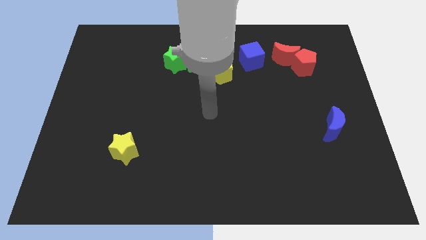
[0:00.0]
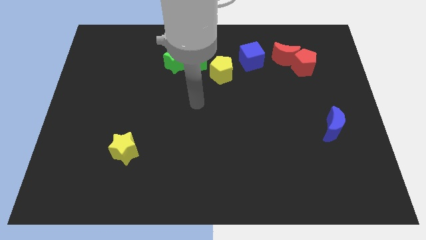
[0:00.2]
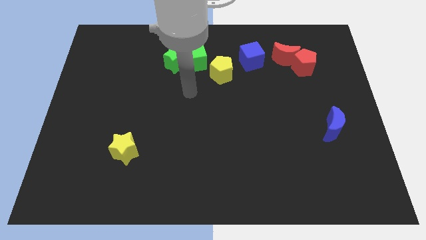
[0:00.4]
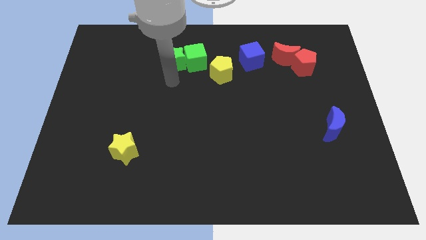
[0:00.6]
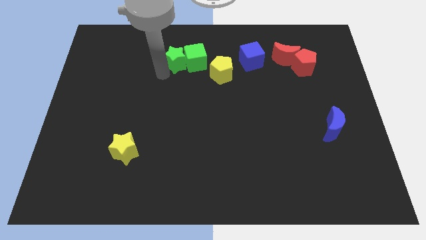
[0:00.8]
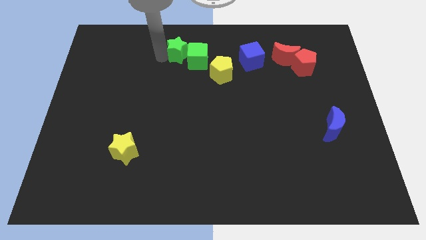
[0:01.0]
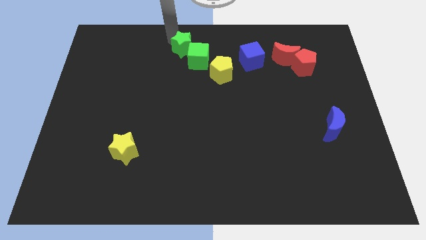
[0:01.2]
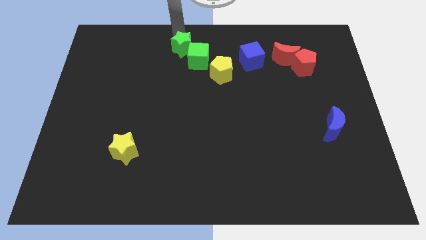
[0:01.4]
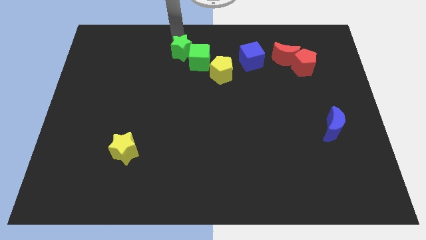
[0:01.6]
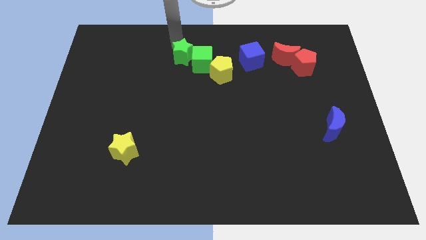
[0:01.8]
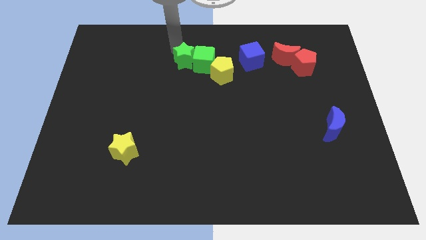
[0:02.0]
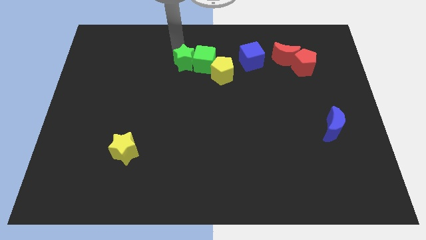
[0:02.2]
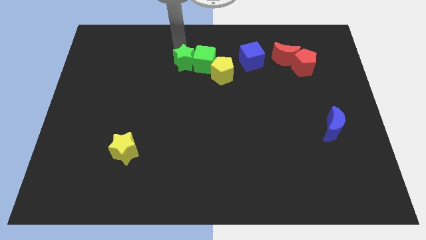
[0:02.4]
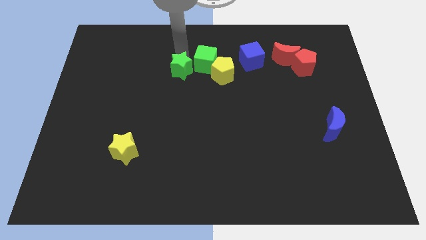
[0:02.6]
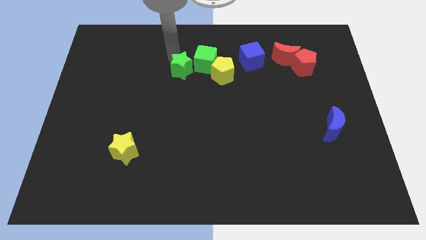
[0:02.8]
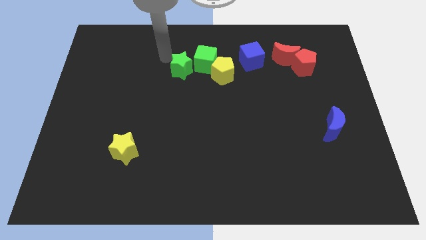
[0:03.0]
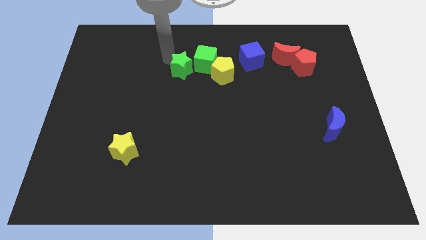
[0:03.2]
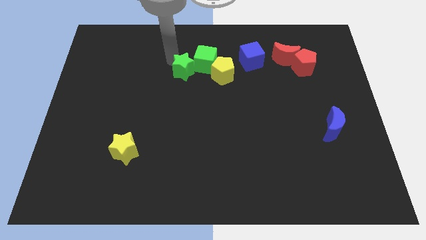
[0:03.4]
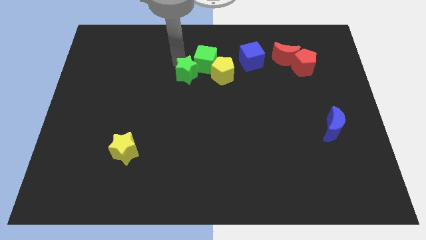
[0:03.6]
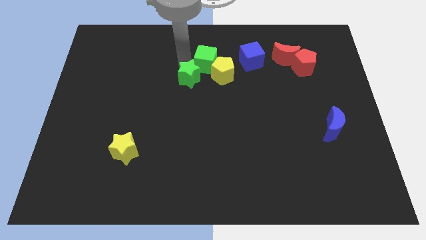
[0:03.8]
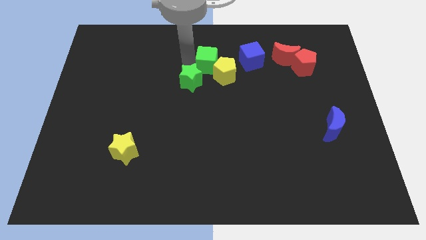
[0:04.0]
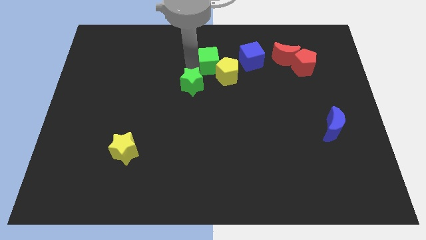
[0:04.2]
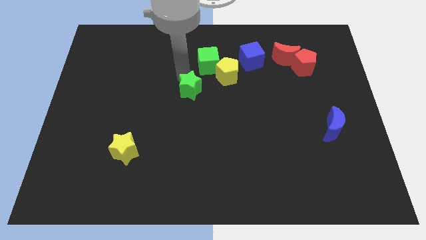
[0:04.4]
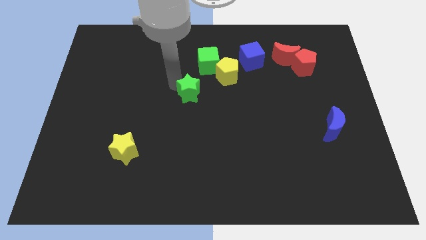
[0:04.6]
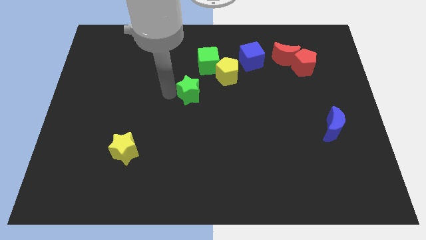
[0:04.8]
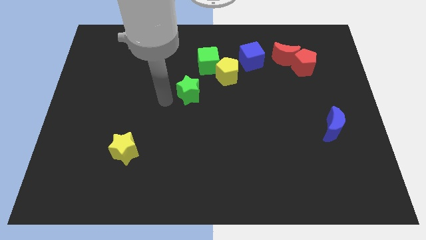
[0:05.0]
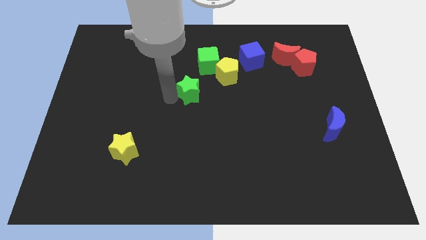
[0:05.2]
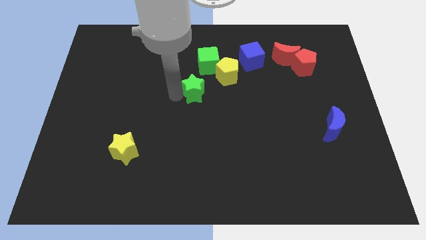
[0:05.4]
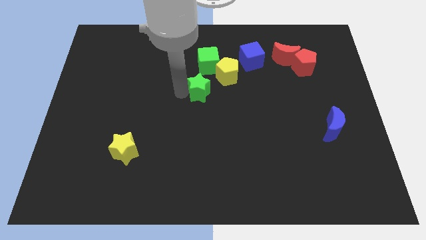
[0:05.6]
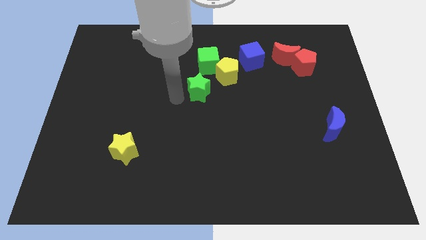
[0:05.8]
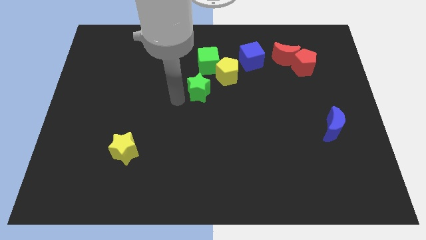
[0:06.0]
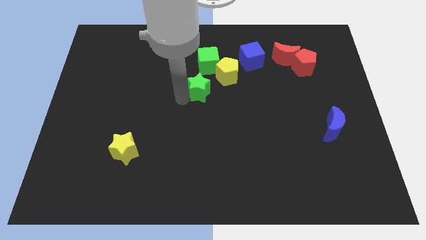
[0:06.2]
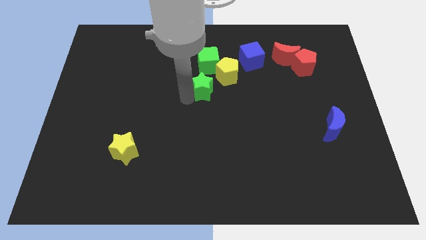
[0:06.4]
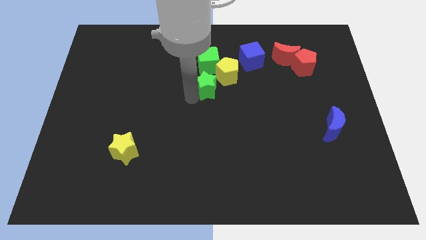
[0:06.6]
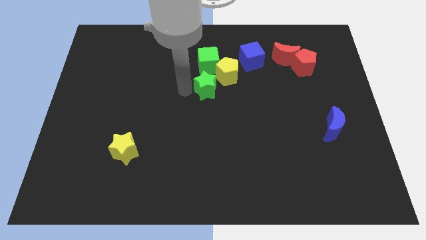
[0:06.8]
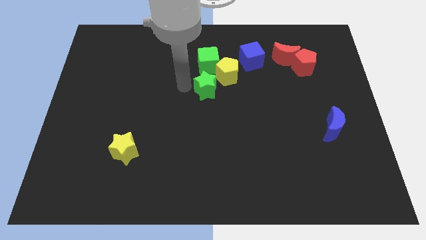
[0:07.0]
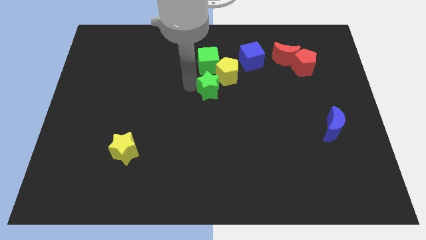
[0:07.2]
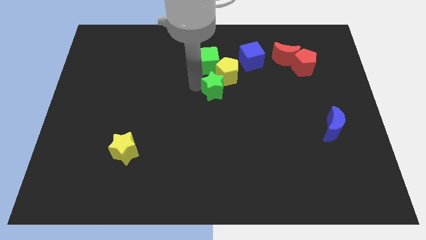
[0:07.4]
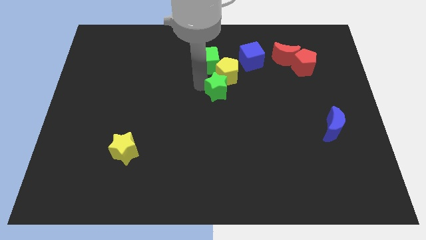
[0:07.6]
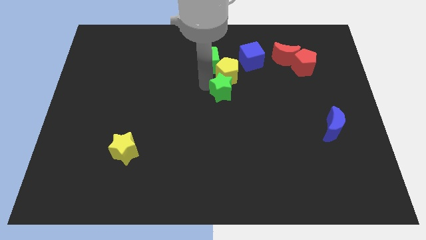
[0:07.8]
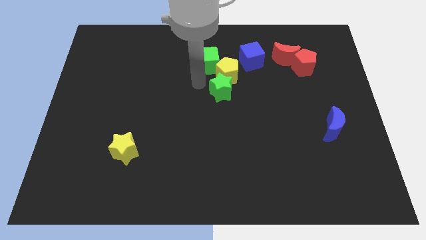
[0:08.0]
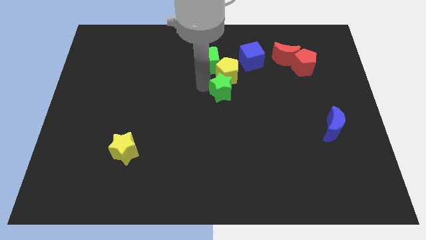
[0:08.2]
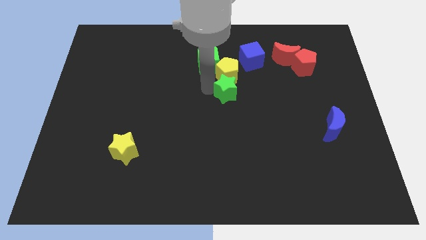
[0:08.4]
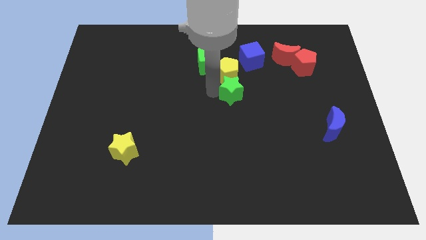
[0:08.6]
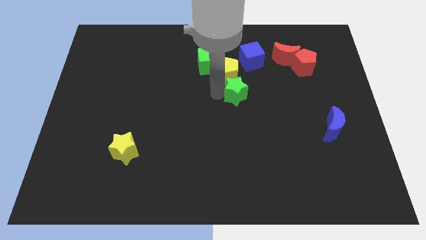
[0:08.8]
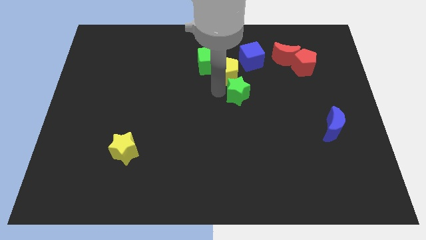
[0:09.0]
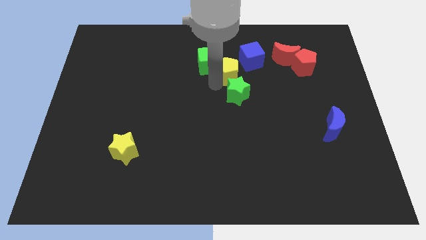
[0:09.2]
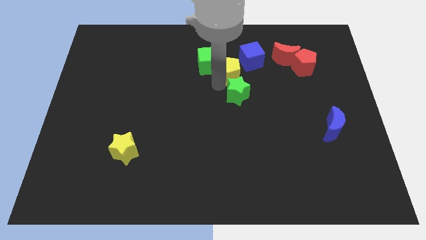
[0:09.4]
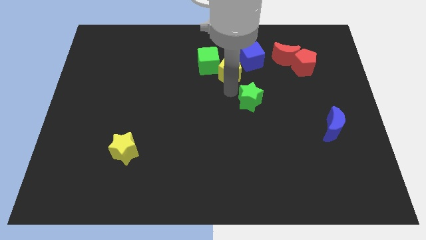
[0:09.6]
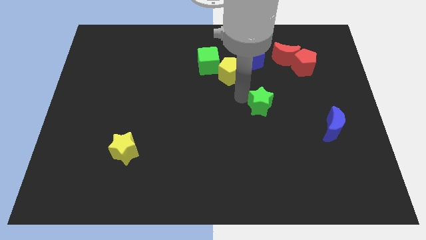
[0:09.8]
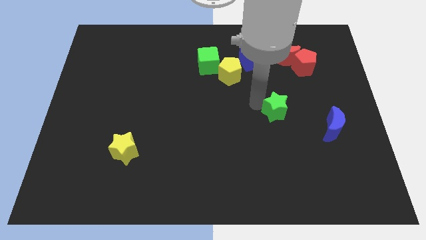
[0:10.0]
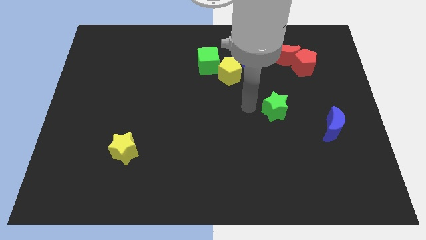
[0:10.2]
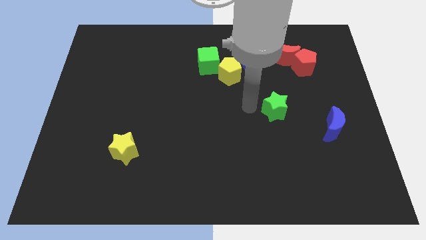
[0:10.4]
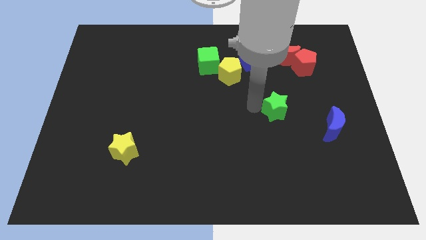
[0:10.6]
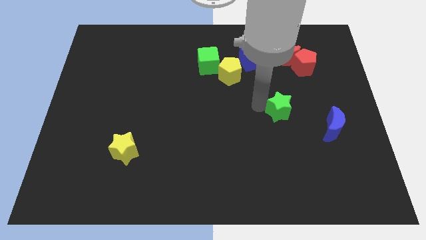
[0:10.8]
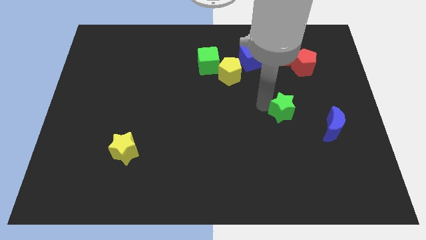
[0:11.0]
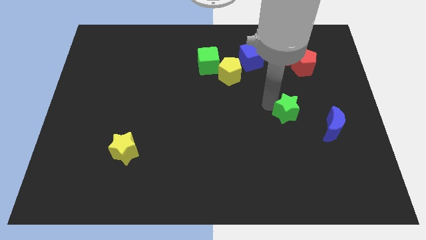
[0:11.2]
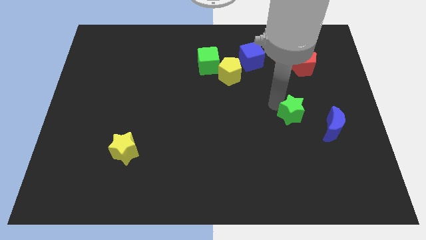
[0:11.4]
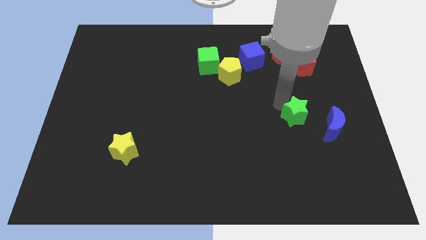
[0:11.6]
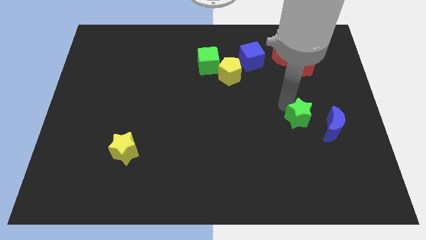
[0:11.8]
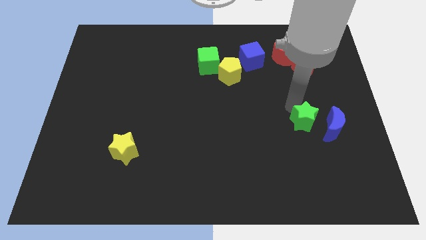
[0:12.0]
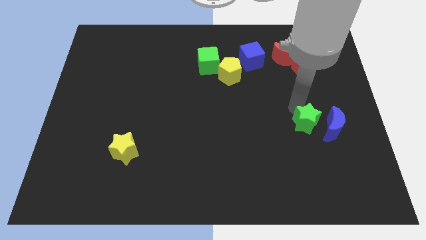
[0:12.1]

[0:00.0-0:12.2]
move the green star next to the blue moon
